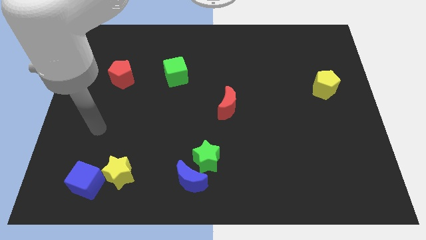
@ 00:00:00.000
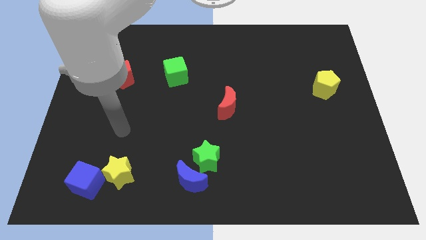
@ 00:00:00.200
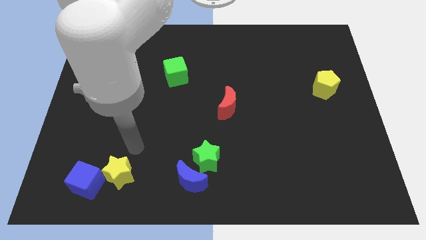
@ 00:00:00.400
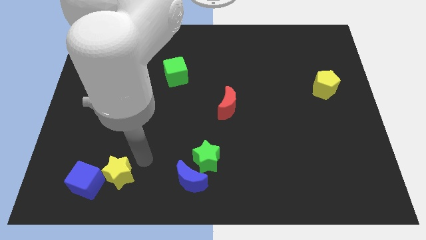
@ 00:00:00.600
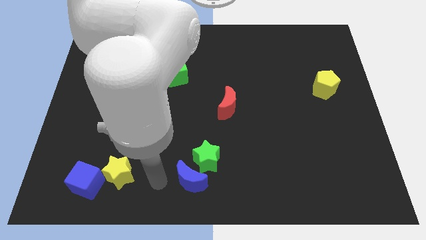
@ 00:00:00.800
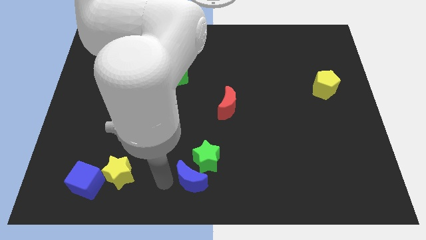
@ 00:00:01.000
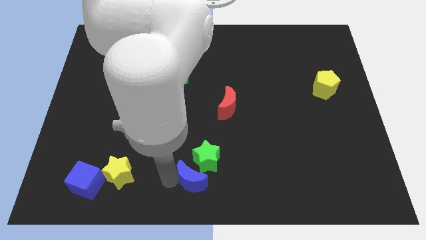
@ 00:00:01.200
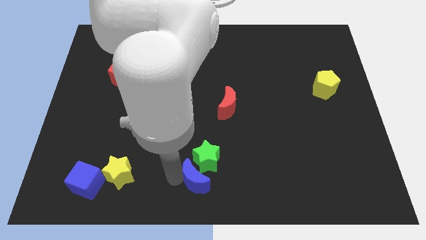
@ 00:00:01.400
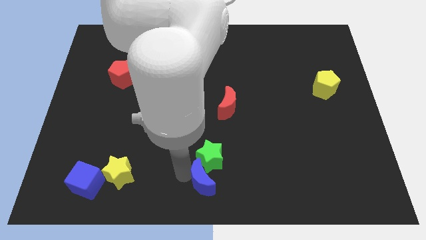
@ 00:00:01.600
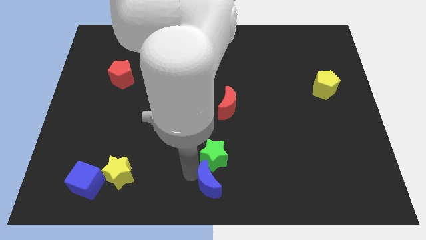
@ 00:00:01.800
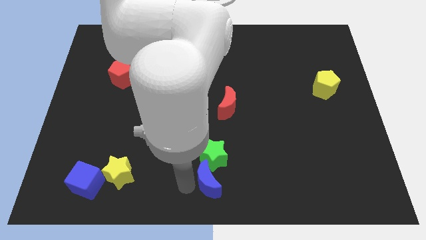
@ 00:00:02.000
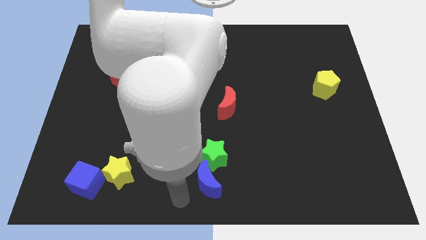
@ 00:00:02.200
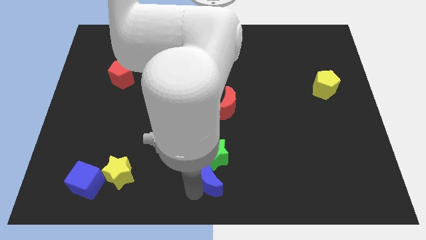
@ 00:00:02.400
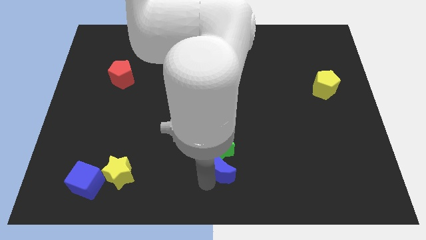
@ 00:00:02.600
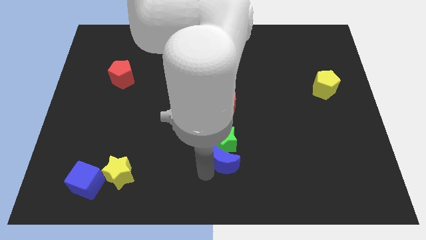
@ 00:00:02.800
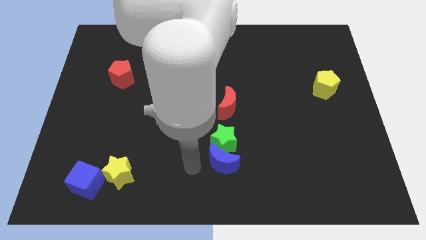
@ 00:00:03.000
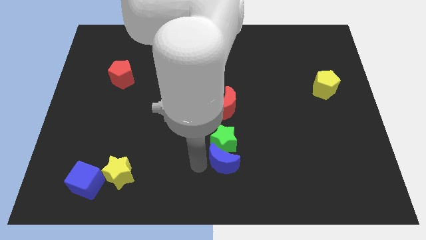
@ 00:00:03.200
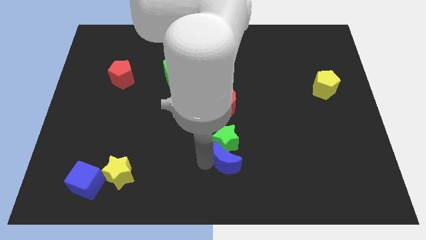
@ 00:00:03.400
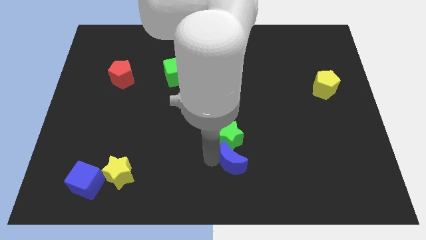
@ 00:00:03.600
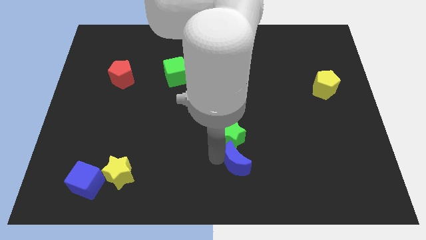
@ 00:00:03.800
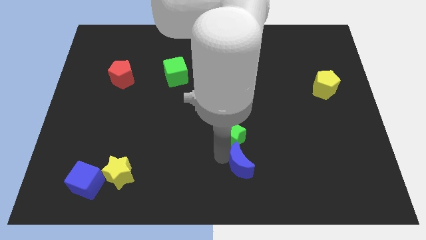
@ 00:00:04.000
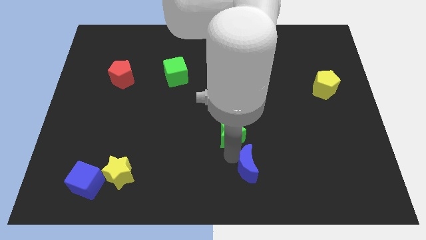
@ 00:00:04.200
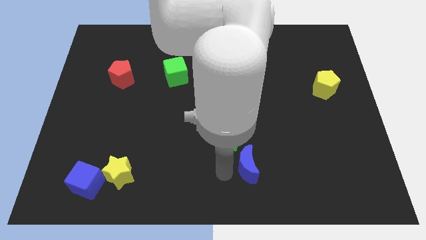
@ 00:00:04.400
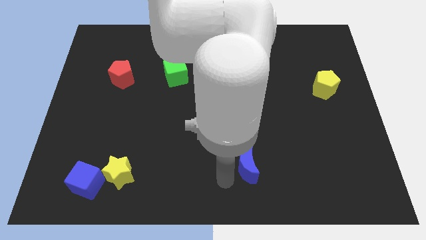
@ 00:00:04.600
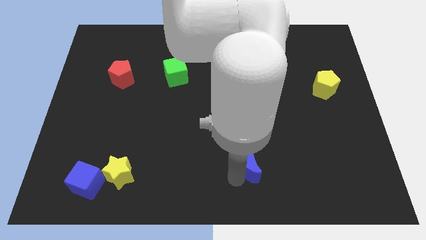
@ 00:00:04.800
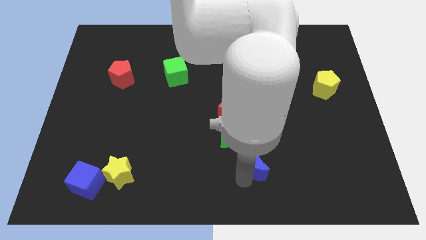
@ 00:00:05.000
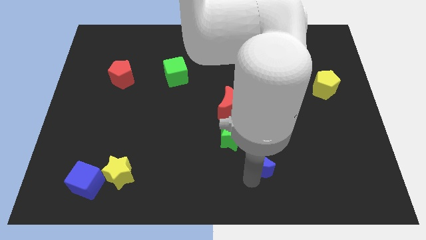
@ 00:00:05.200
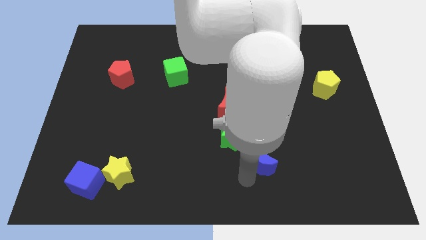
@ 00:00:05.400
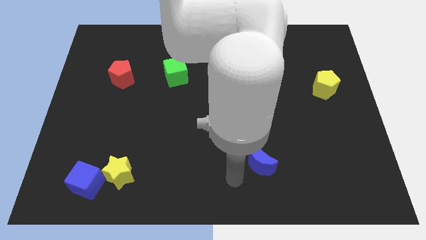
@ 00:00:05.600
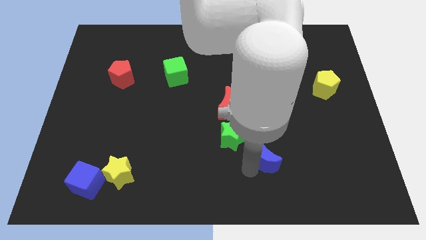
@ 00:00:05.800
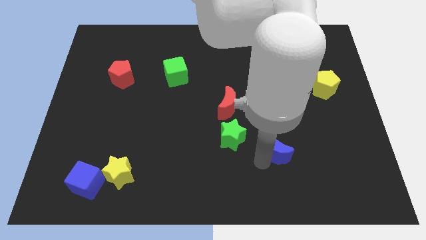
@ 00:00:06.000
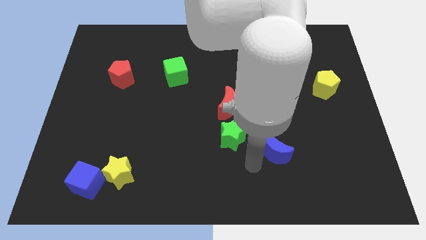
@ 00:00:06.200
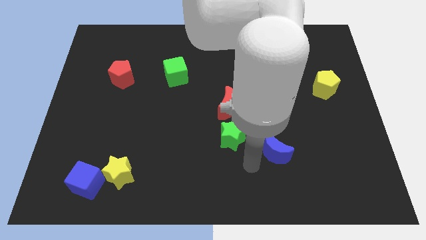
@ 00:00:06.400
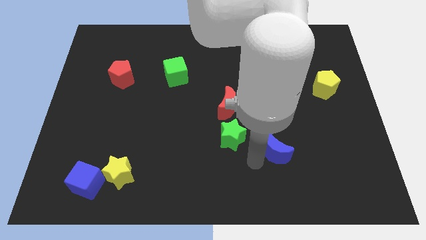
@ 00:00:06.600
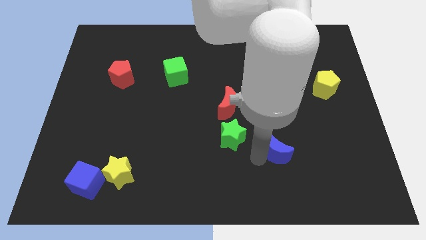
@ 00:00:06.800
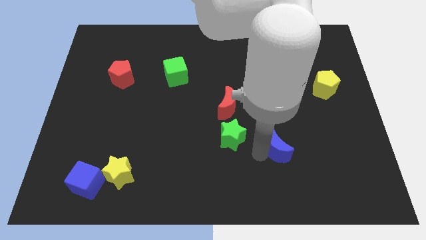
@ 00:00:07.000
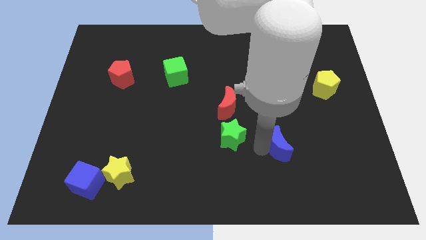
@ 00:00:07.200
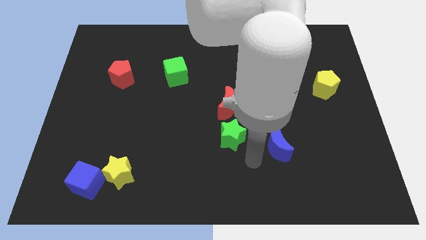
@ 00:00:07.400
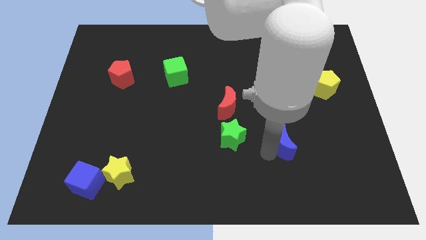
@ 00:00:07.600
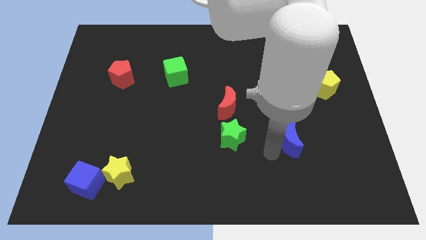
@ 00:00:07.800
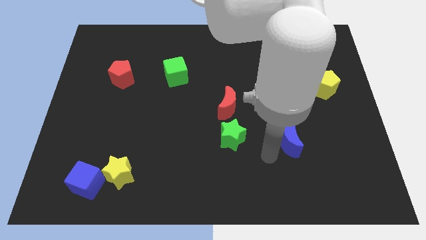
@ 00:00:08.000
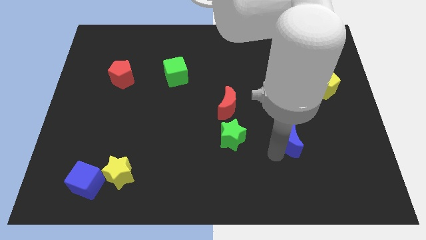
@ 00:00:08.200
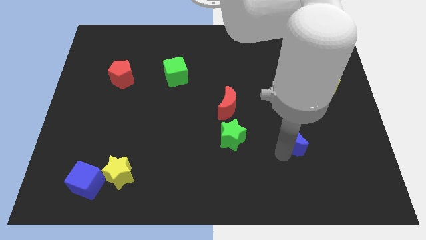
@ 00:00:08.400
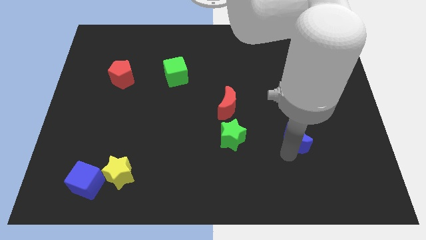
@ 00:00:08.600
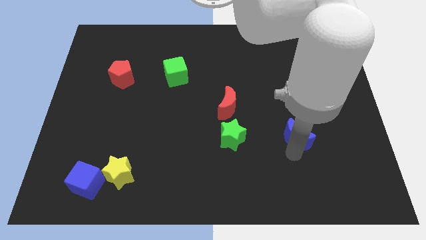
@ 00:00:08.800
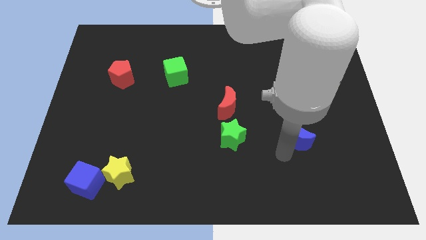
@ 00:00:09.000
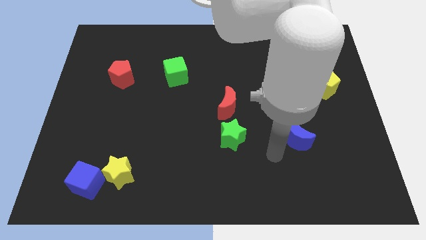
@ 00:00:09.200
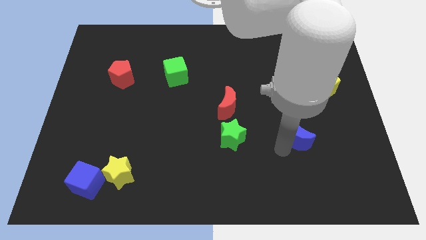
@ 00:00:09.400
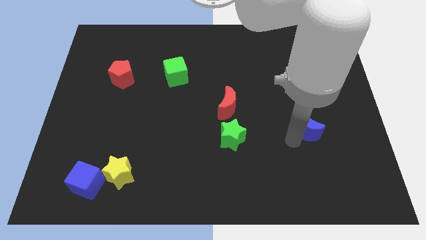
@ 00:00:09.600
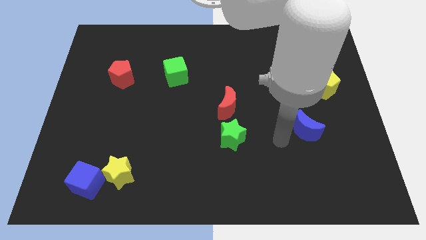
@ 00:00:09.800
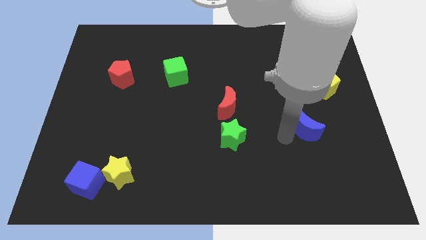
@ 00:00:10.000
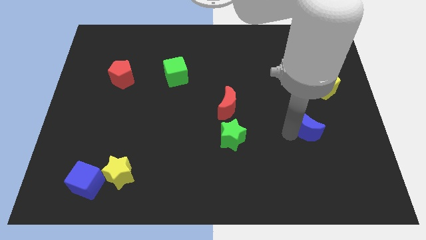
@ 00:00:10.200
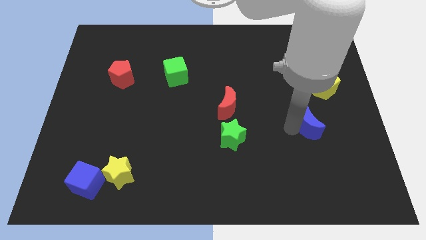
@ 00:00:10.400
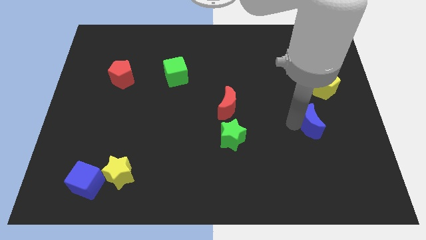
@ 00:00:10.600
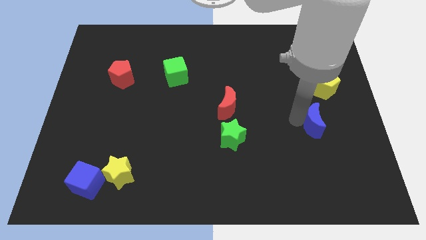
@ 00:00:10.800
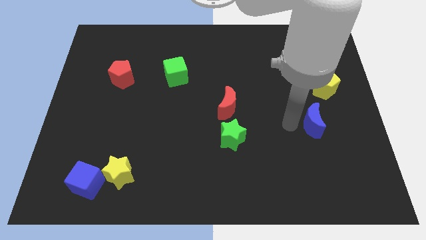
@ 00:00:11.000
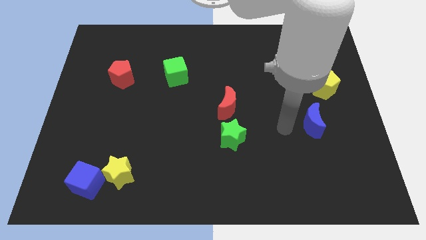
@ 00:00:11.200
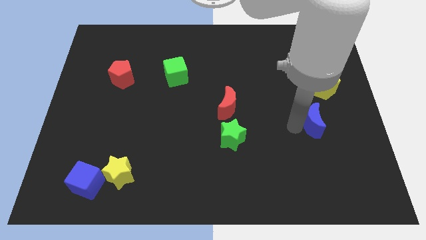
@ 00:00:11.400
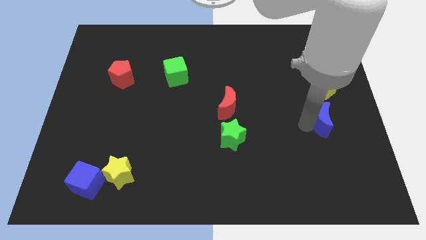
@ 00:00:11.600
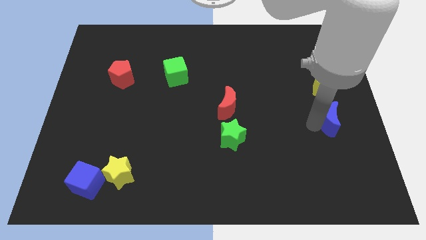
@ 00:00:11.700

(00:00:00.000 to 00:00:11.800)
move the blue moon to the center right
